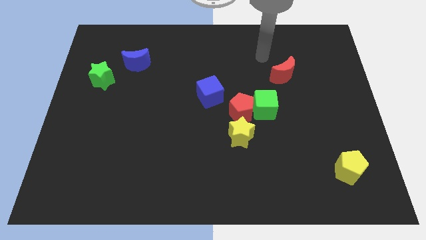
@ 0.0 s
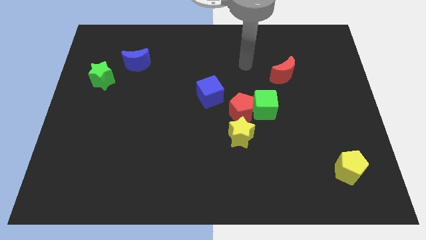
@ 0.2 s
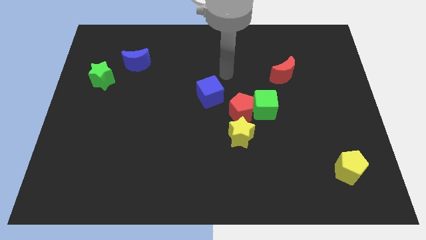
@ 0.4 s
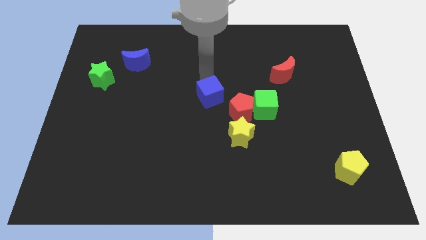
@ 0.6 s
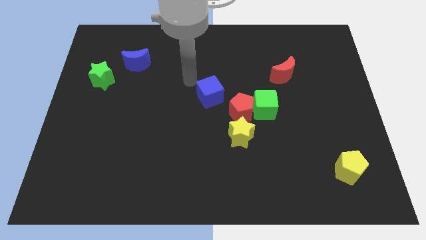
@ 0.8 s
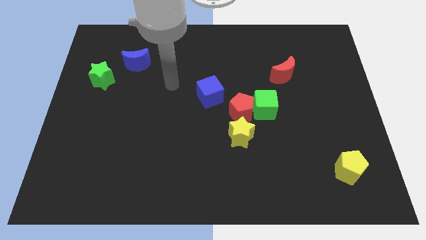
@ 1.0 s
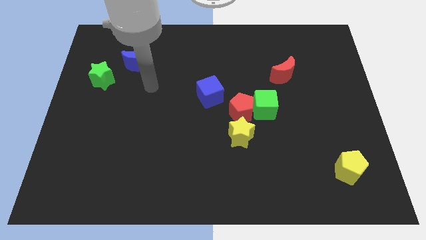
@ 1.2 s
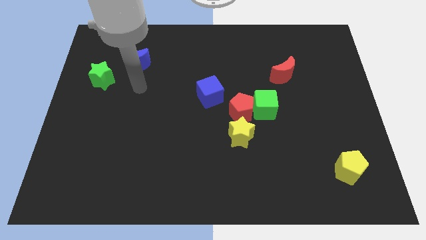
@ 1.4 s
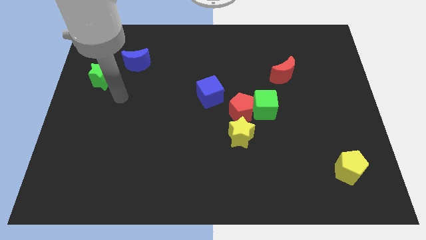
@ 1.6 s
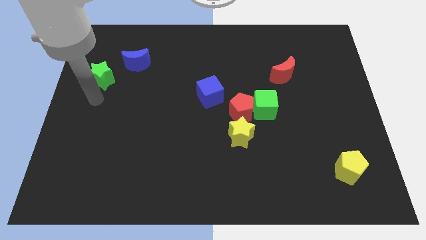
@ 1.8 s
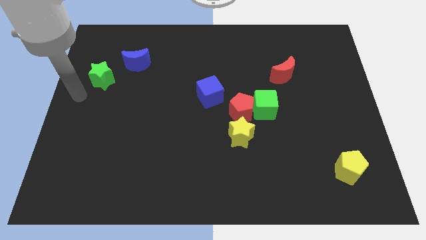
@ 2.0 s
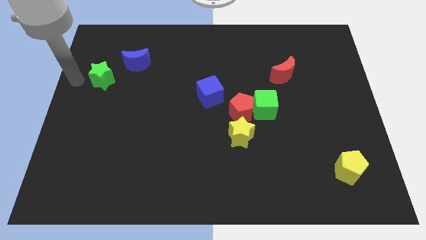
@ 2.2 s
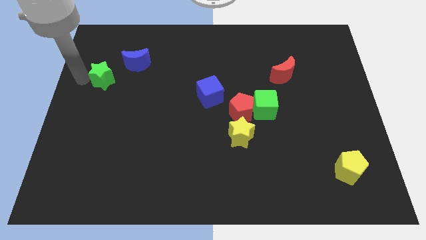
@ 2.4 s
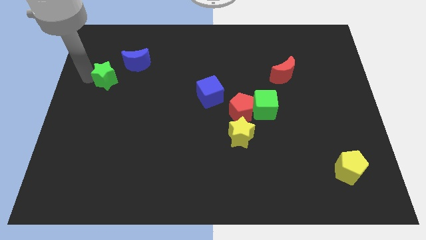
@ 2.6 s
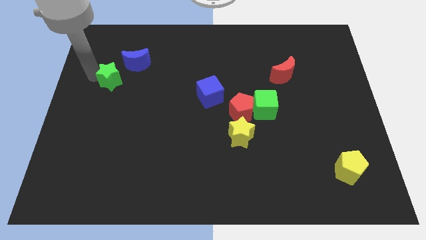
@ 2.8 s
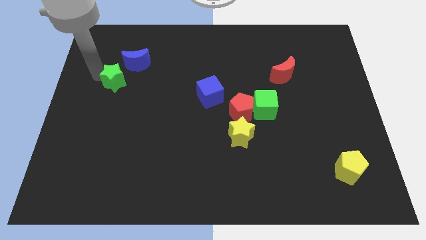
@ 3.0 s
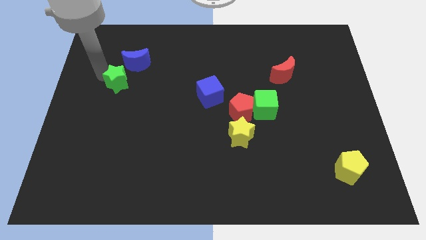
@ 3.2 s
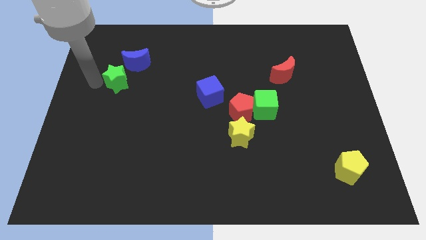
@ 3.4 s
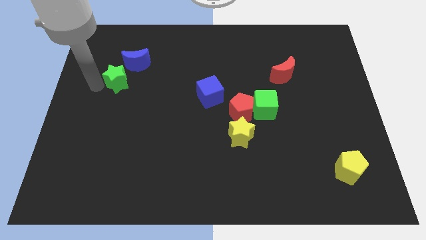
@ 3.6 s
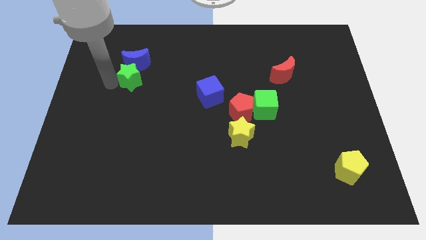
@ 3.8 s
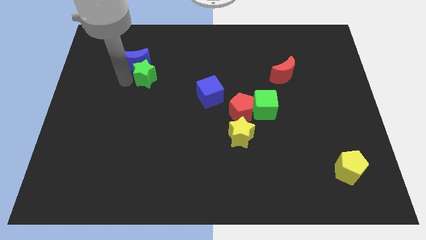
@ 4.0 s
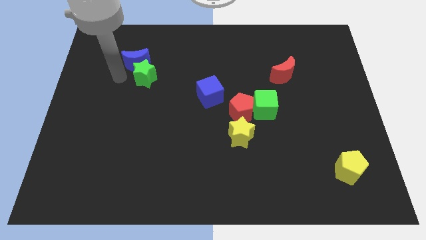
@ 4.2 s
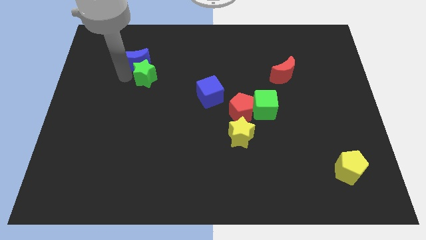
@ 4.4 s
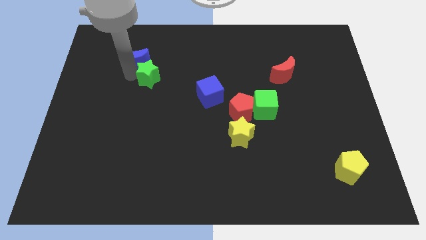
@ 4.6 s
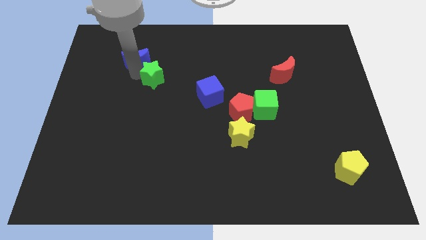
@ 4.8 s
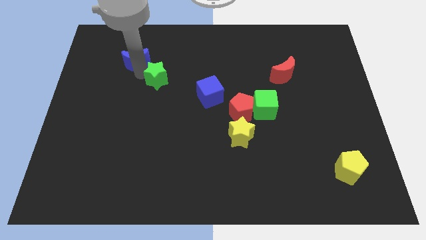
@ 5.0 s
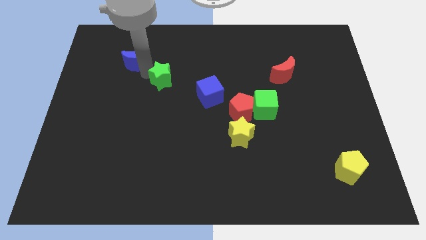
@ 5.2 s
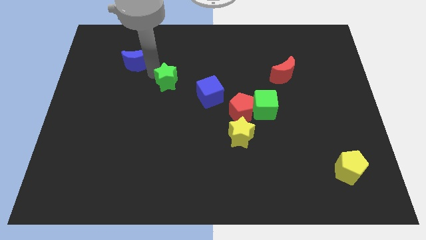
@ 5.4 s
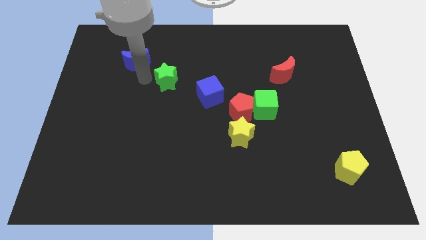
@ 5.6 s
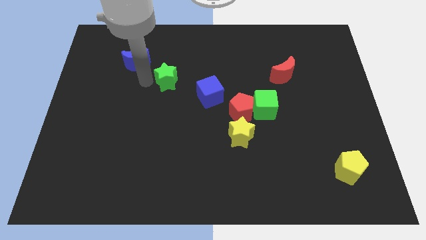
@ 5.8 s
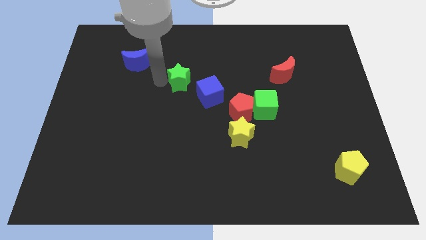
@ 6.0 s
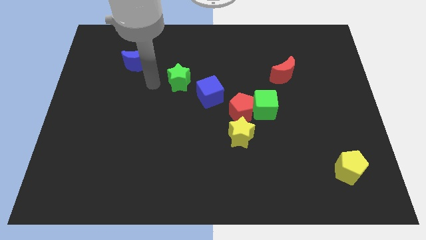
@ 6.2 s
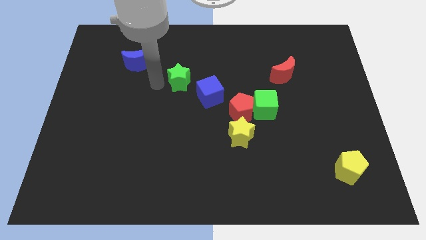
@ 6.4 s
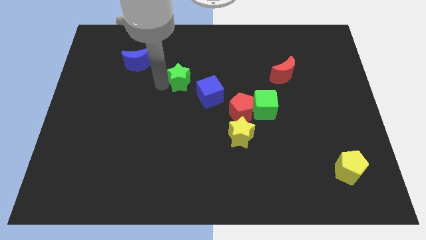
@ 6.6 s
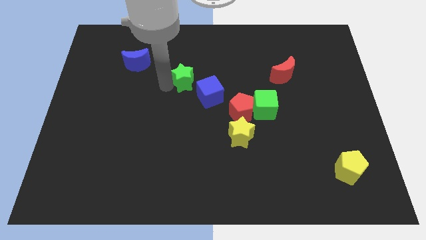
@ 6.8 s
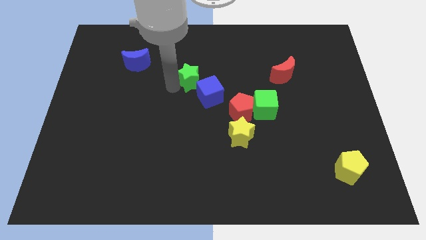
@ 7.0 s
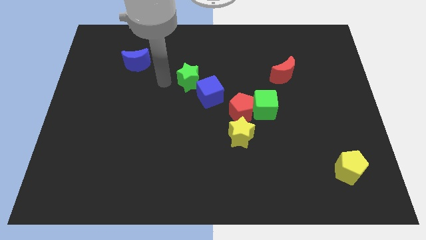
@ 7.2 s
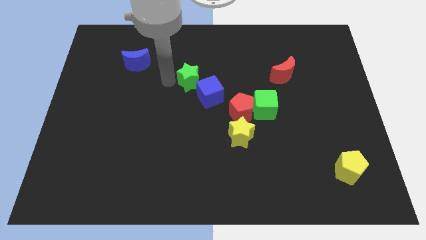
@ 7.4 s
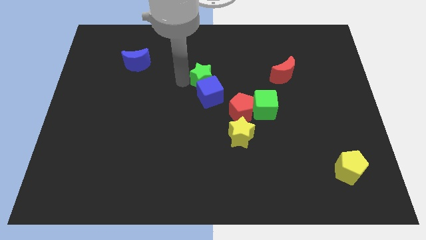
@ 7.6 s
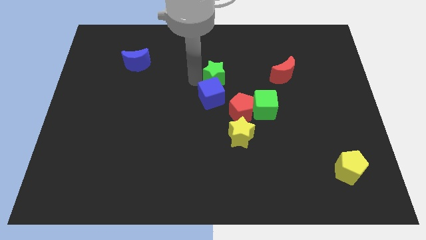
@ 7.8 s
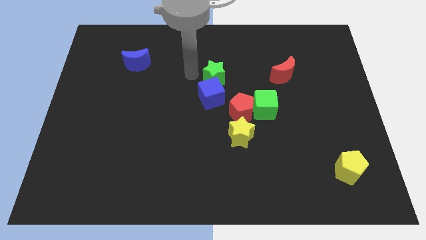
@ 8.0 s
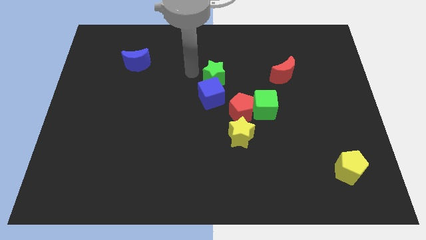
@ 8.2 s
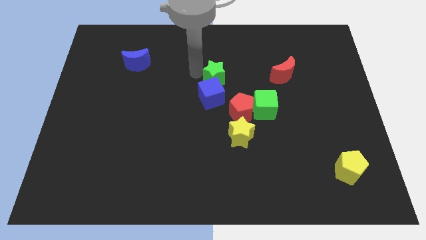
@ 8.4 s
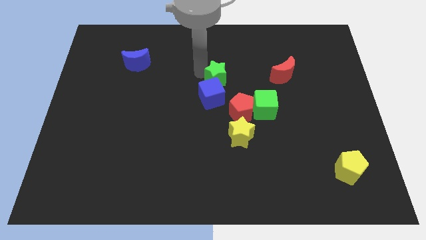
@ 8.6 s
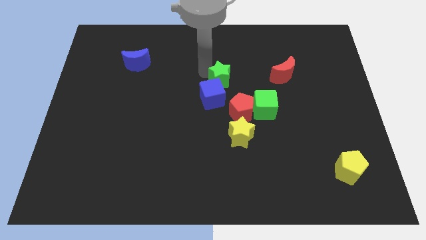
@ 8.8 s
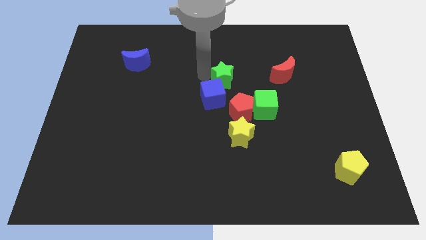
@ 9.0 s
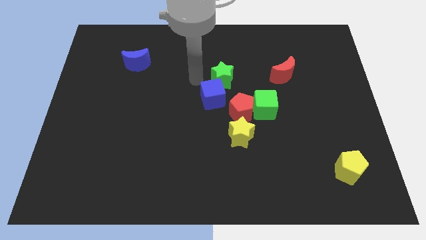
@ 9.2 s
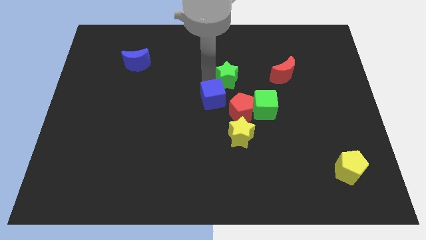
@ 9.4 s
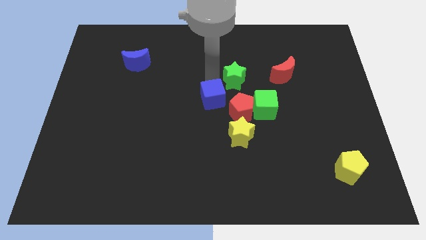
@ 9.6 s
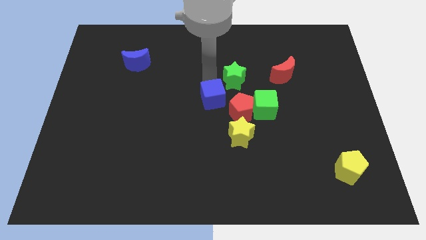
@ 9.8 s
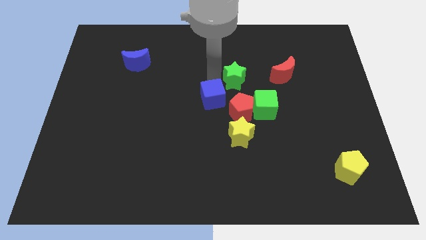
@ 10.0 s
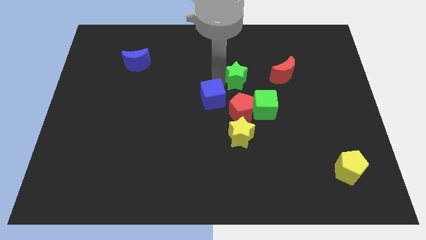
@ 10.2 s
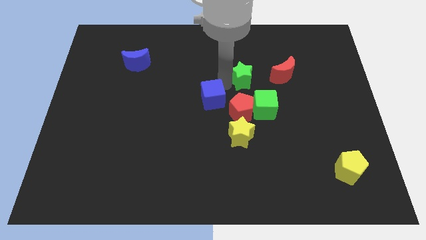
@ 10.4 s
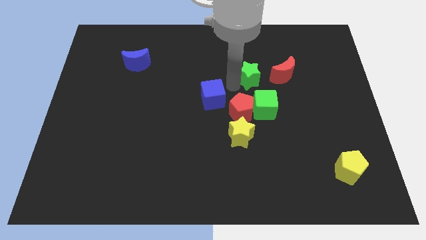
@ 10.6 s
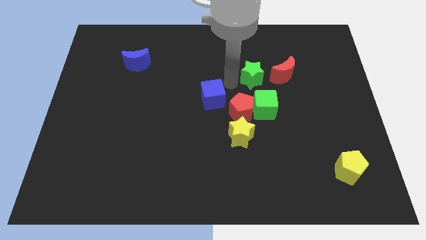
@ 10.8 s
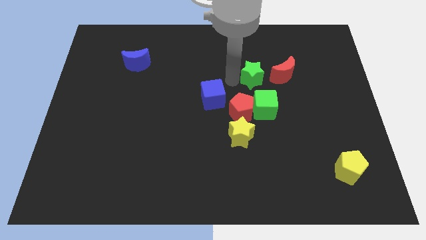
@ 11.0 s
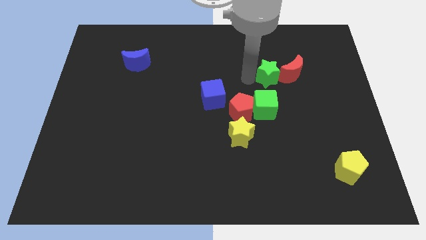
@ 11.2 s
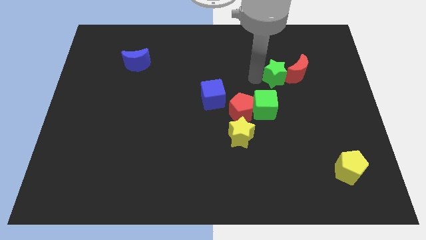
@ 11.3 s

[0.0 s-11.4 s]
put the green star towards the red moon

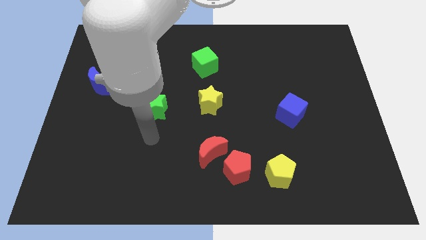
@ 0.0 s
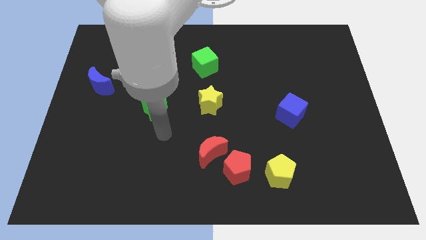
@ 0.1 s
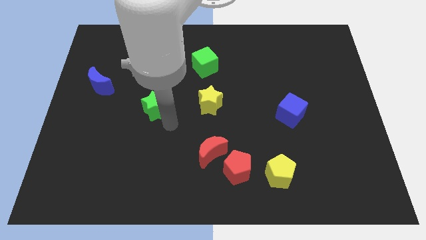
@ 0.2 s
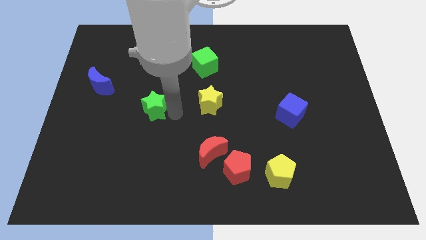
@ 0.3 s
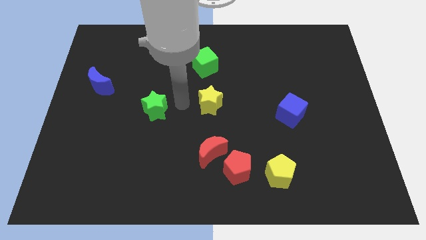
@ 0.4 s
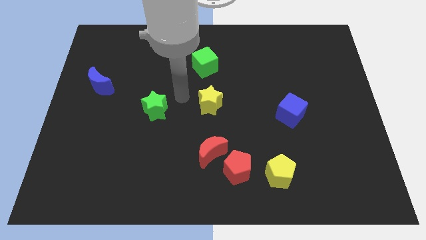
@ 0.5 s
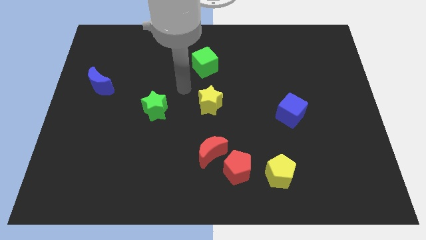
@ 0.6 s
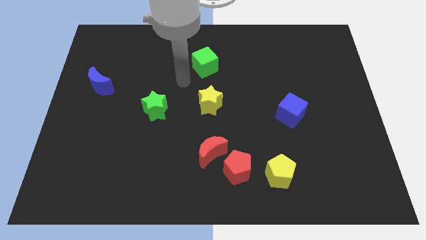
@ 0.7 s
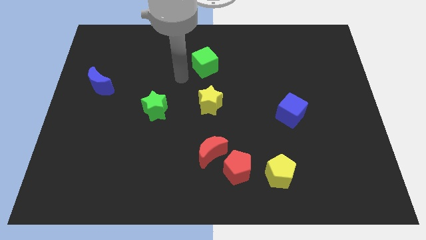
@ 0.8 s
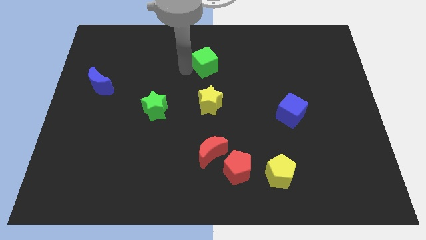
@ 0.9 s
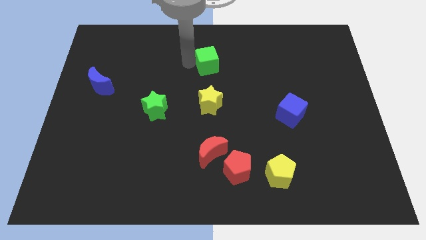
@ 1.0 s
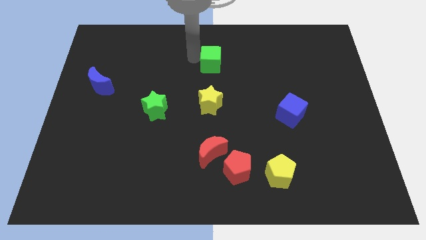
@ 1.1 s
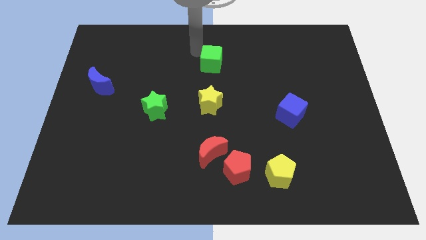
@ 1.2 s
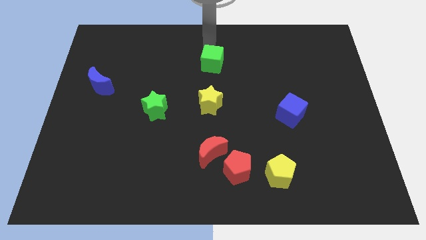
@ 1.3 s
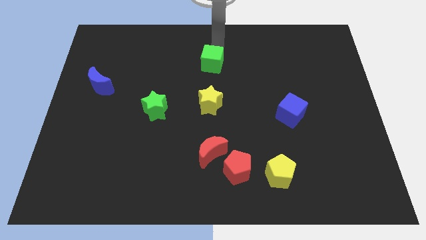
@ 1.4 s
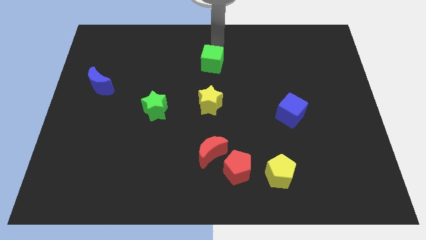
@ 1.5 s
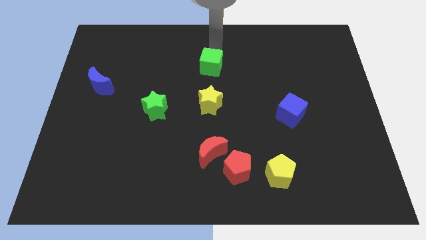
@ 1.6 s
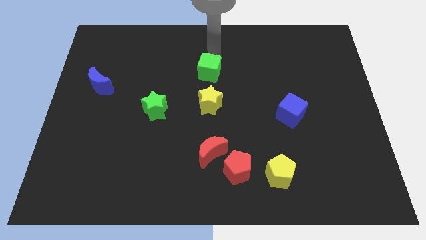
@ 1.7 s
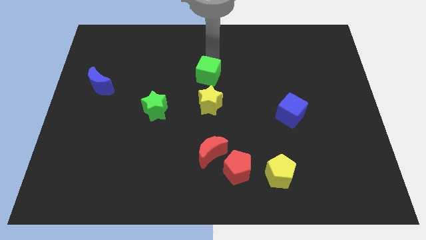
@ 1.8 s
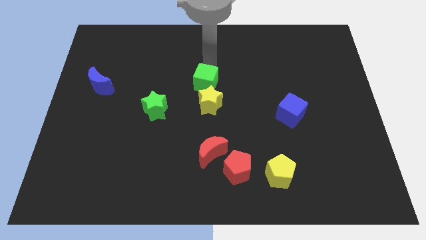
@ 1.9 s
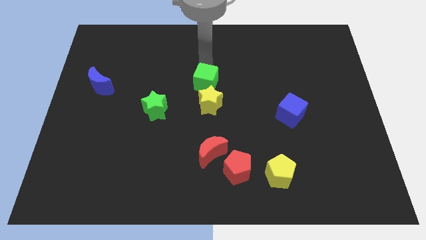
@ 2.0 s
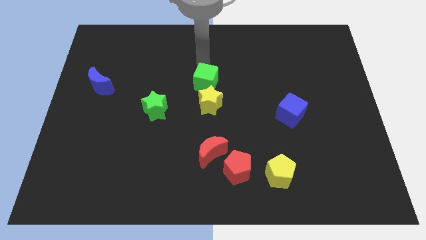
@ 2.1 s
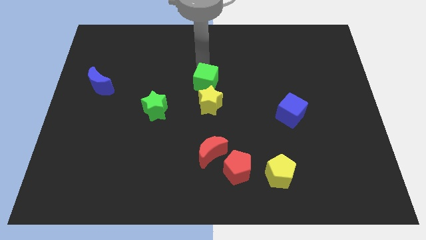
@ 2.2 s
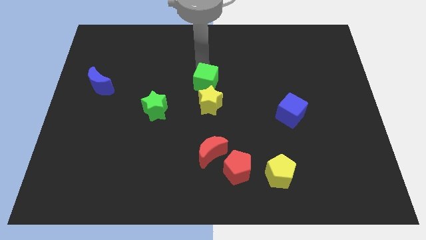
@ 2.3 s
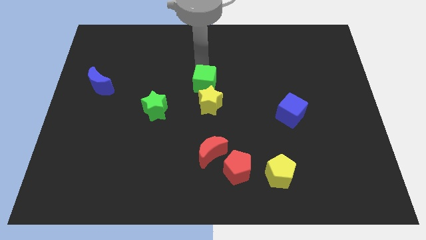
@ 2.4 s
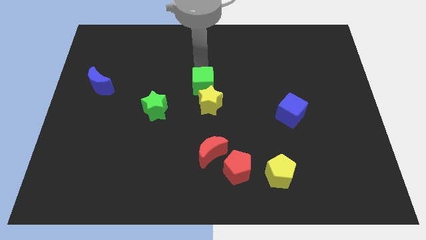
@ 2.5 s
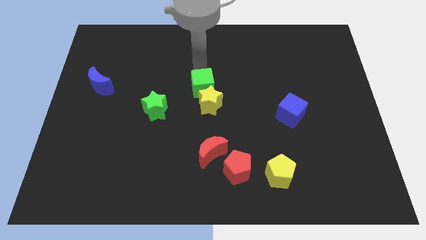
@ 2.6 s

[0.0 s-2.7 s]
push the green cube next to the yellow star
